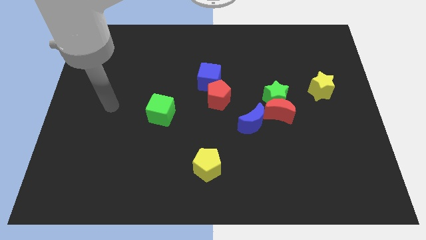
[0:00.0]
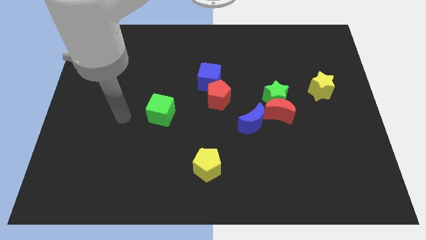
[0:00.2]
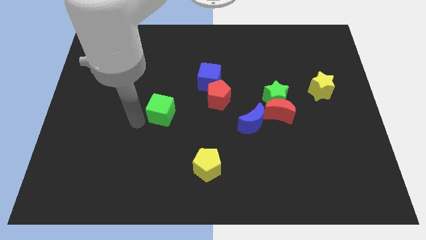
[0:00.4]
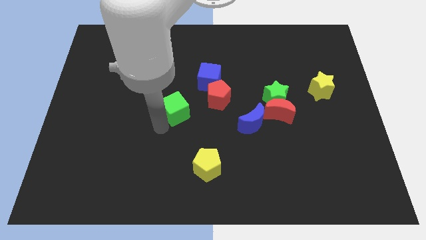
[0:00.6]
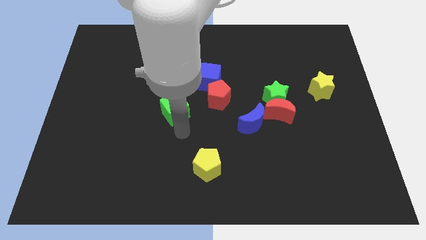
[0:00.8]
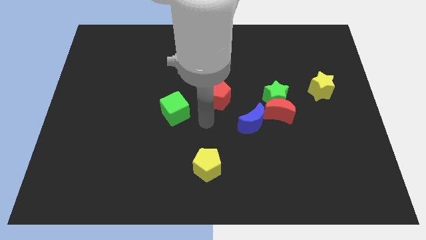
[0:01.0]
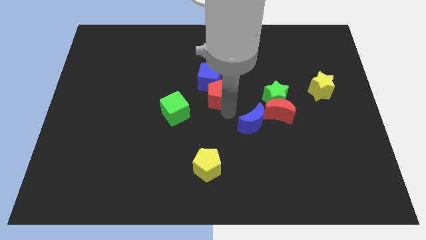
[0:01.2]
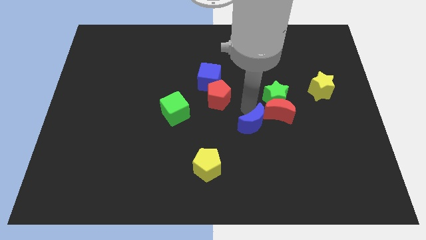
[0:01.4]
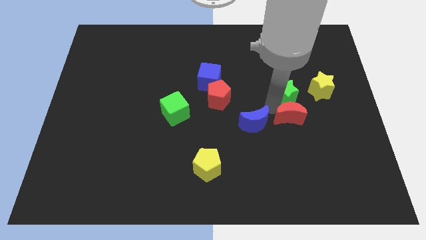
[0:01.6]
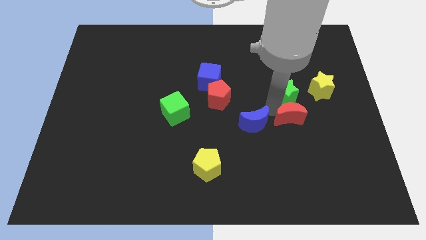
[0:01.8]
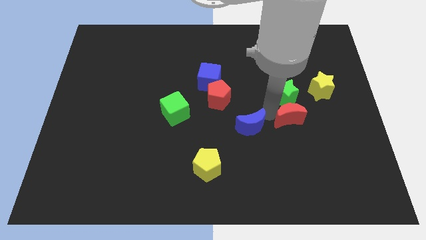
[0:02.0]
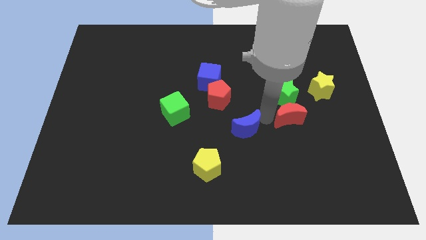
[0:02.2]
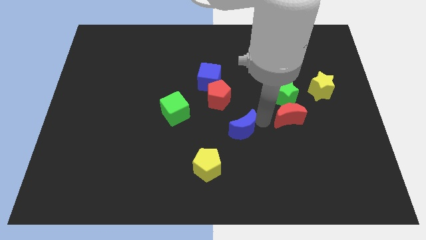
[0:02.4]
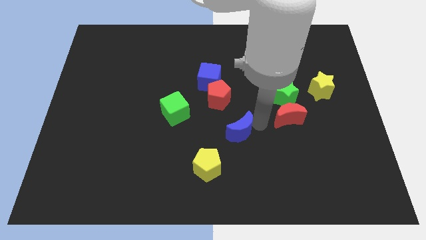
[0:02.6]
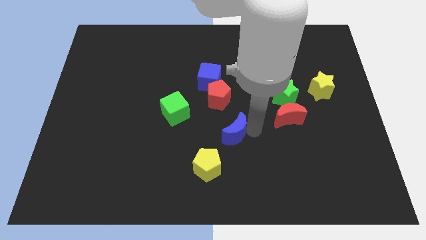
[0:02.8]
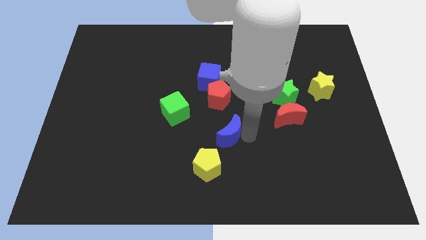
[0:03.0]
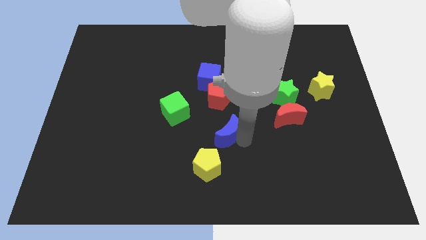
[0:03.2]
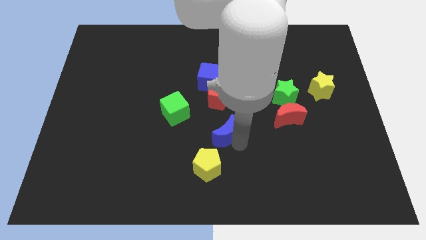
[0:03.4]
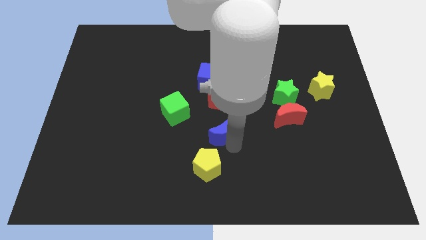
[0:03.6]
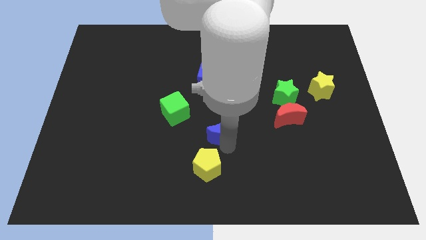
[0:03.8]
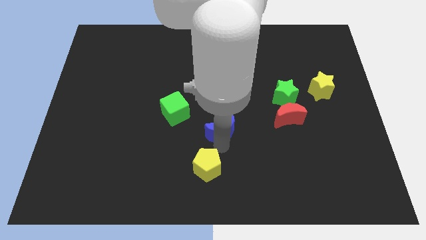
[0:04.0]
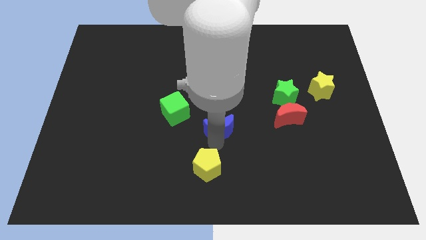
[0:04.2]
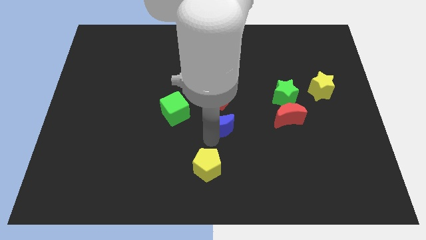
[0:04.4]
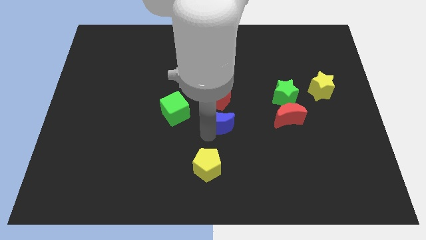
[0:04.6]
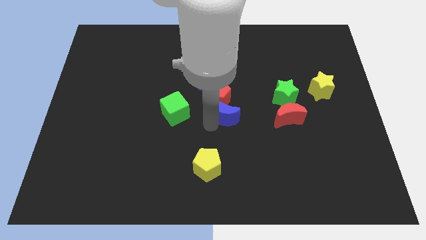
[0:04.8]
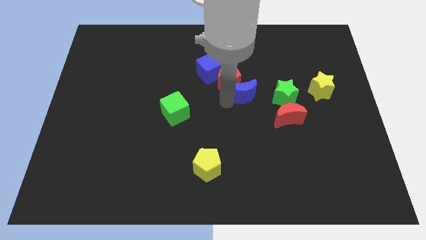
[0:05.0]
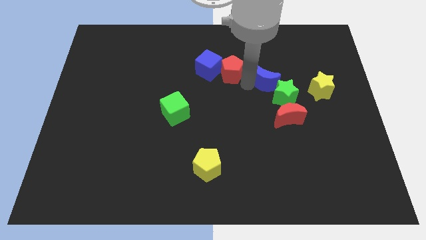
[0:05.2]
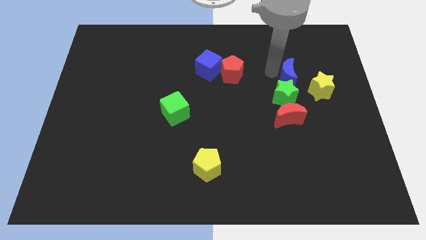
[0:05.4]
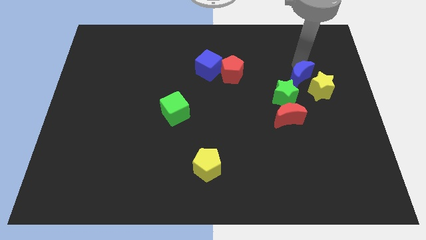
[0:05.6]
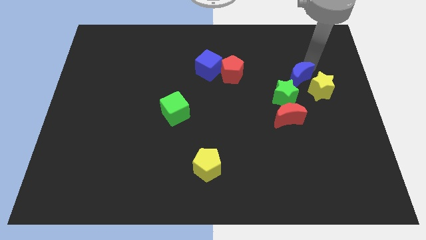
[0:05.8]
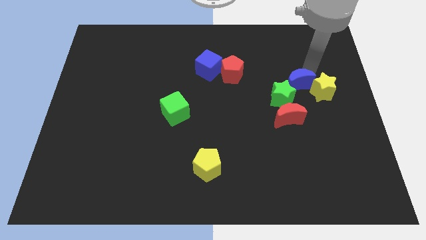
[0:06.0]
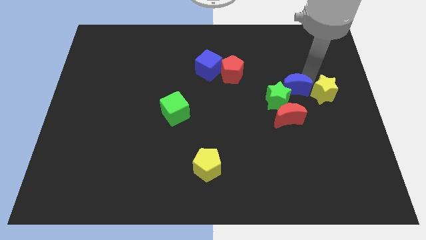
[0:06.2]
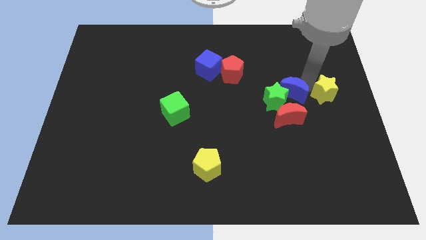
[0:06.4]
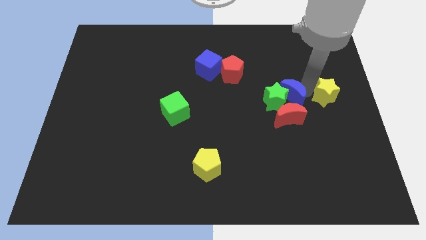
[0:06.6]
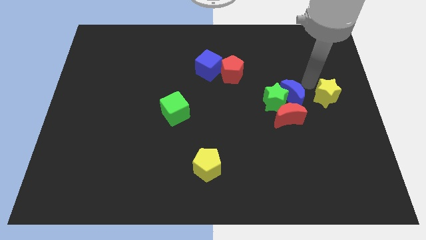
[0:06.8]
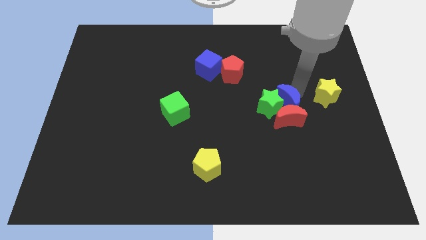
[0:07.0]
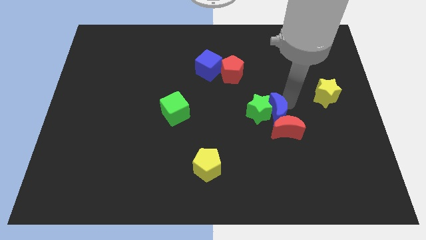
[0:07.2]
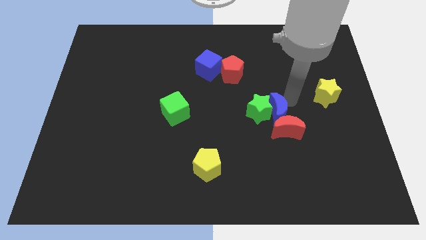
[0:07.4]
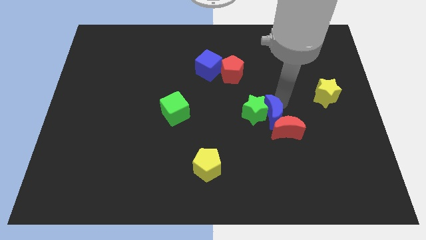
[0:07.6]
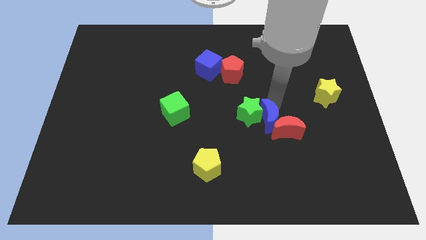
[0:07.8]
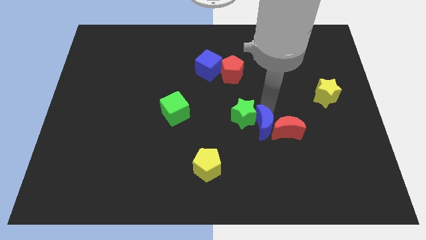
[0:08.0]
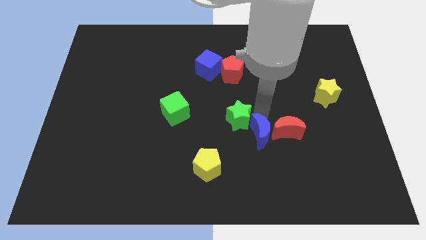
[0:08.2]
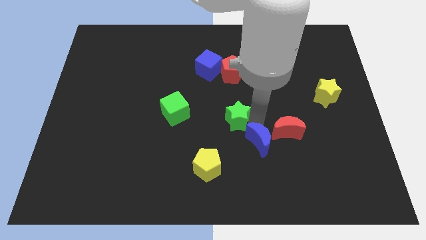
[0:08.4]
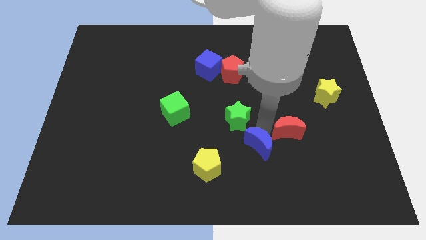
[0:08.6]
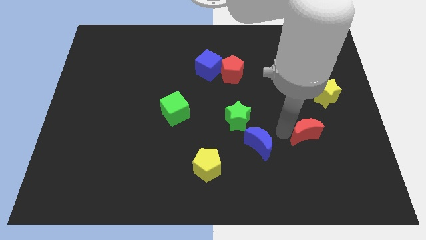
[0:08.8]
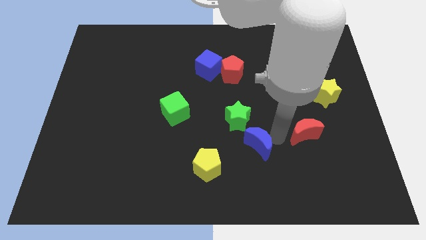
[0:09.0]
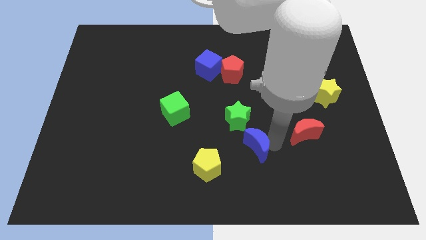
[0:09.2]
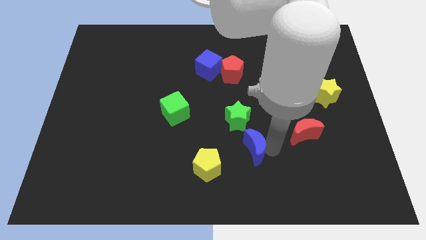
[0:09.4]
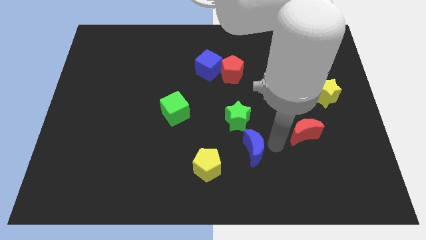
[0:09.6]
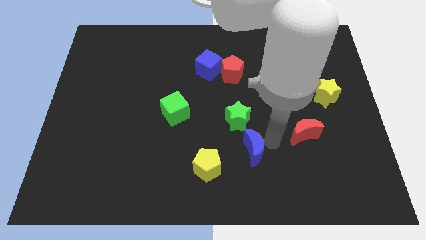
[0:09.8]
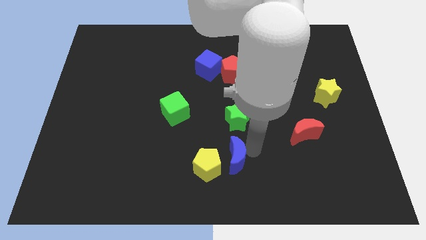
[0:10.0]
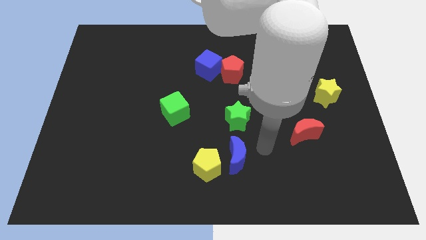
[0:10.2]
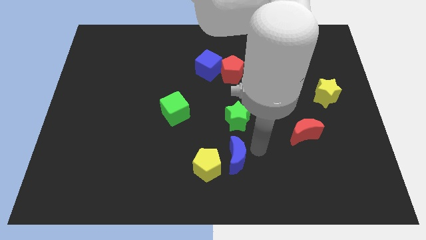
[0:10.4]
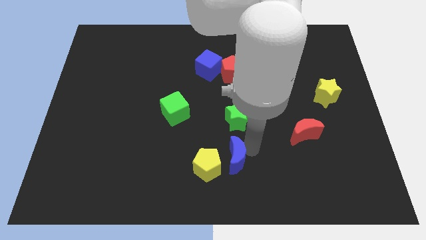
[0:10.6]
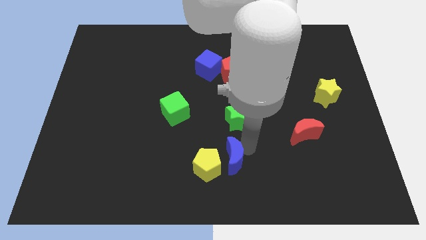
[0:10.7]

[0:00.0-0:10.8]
push the blue moon towards the yellow pentagon

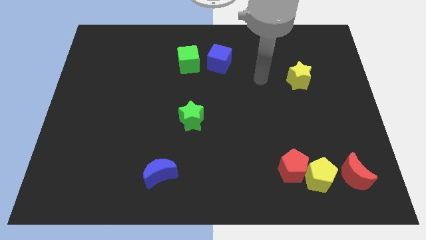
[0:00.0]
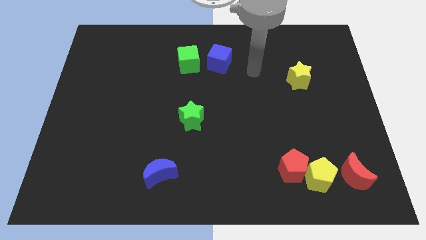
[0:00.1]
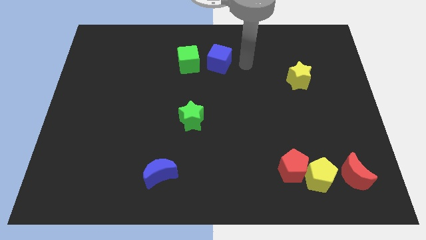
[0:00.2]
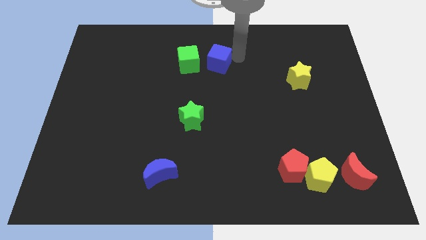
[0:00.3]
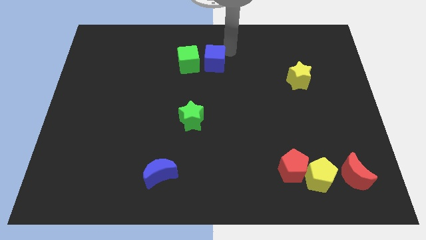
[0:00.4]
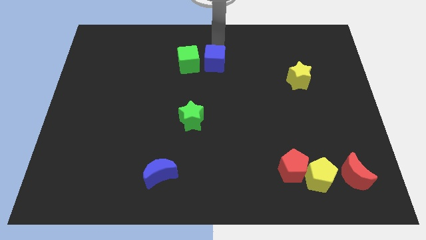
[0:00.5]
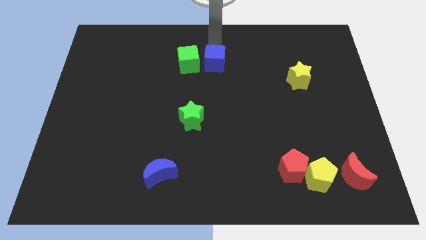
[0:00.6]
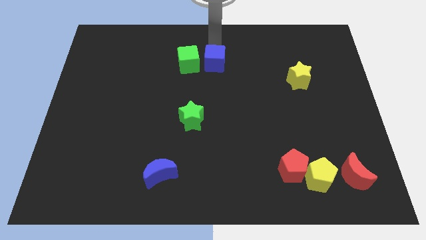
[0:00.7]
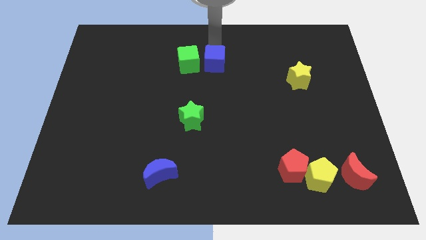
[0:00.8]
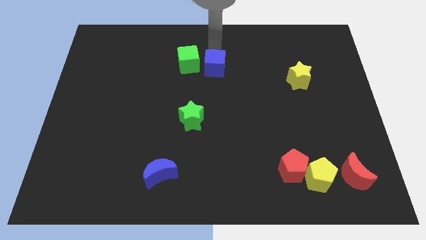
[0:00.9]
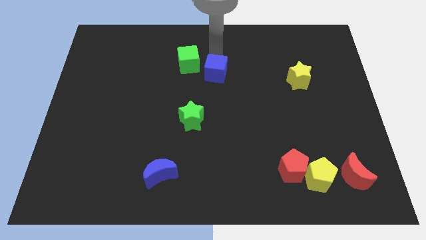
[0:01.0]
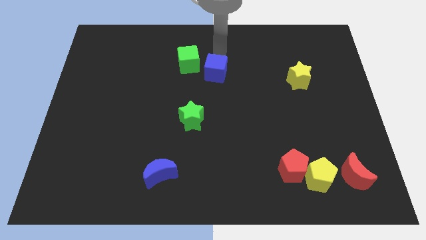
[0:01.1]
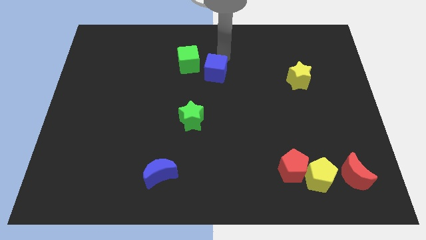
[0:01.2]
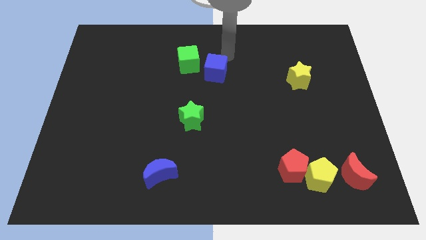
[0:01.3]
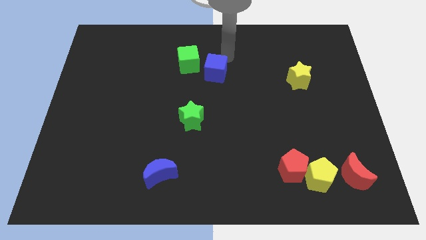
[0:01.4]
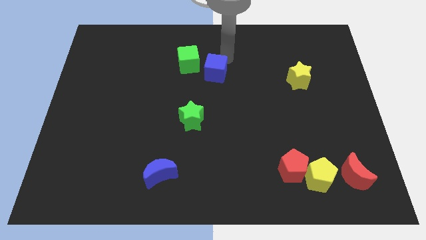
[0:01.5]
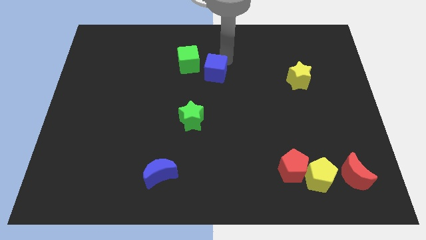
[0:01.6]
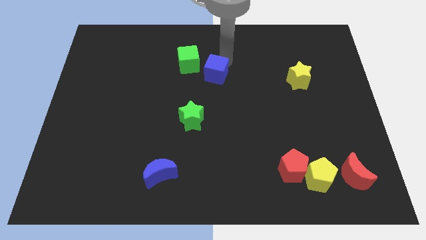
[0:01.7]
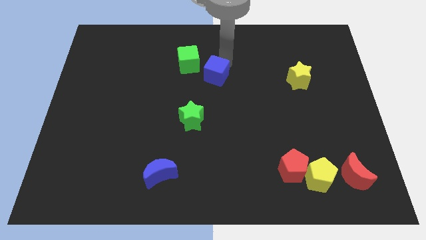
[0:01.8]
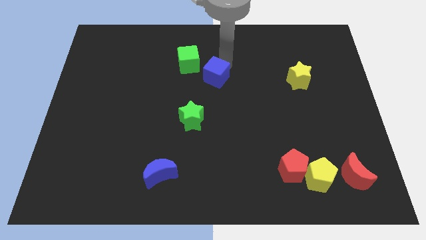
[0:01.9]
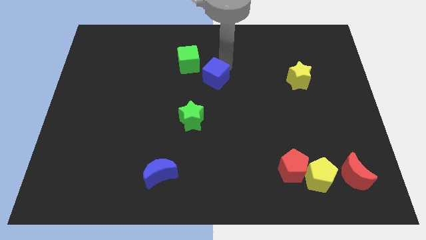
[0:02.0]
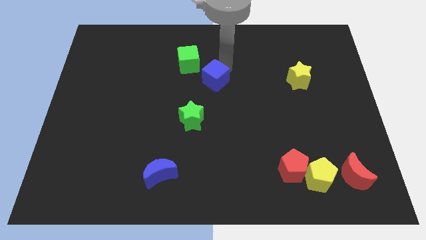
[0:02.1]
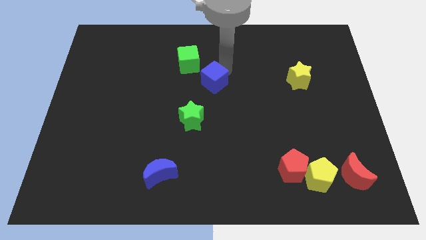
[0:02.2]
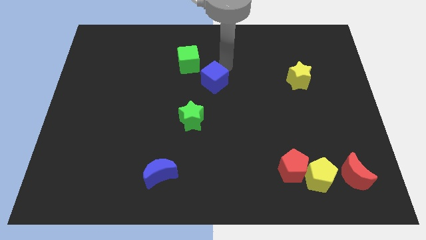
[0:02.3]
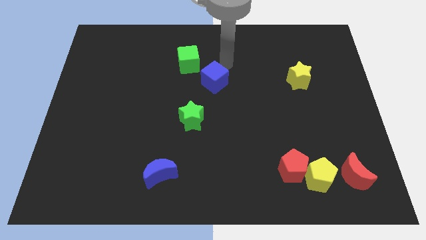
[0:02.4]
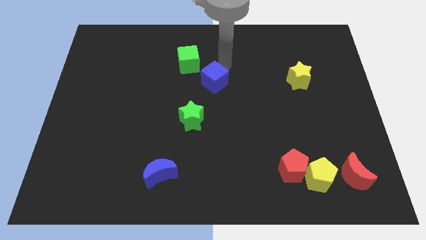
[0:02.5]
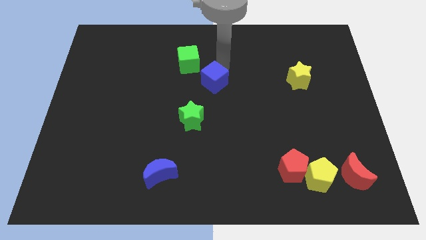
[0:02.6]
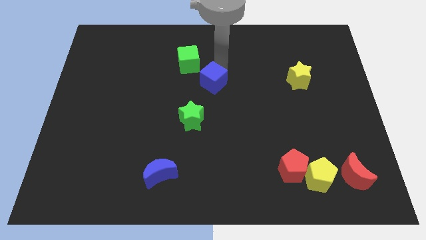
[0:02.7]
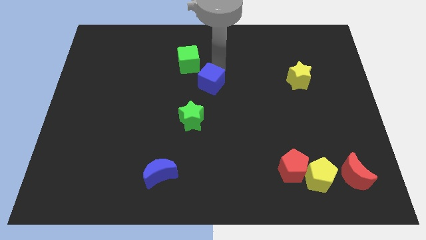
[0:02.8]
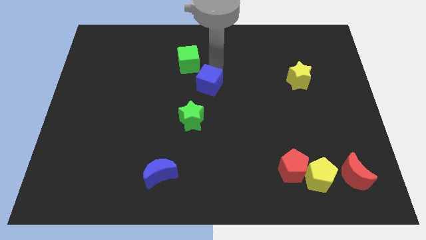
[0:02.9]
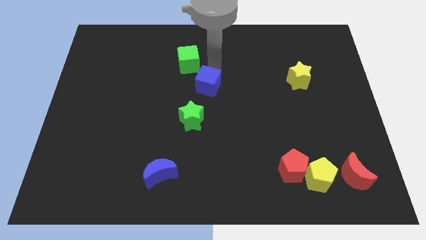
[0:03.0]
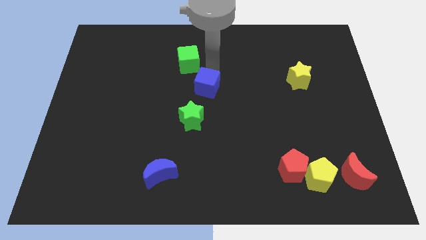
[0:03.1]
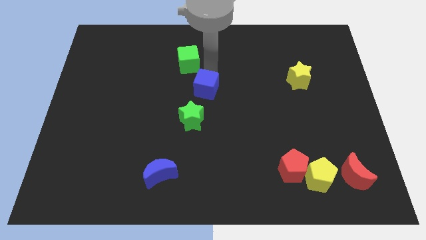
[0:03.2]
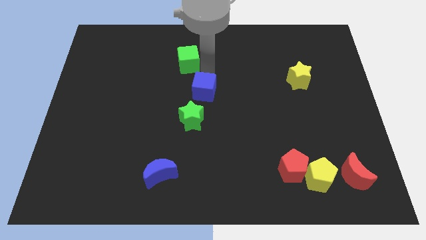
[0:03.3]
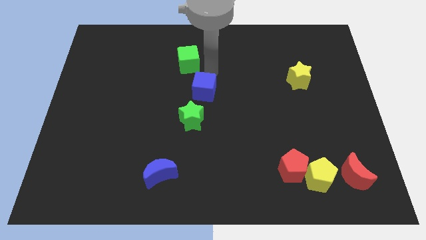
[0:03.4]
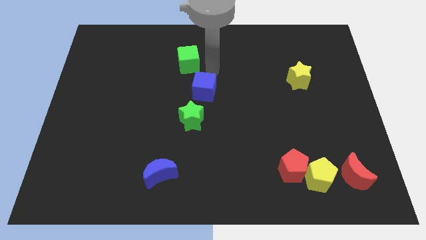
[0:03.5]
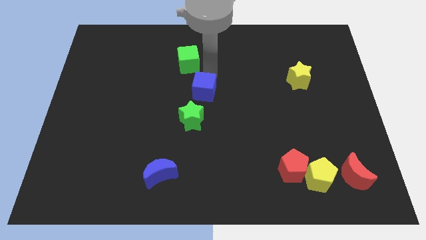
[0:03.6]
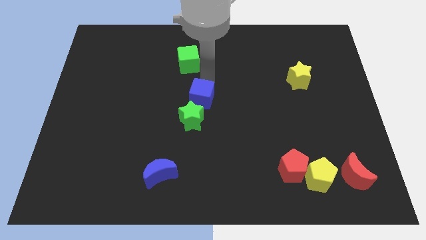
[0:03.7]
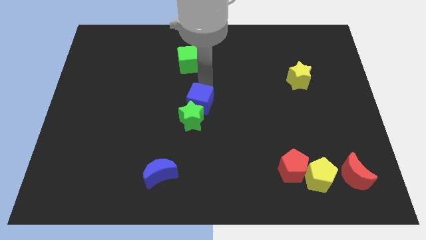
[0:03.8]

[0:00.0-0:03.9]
move the blue cube towards the green star
